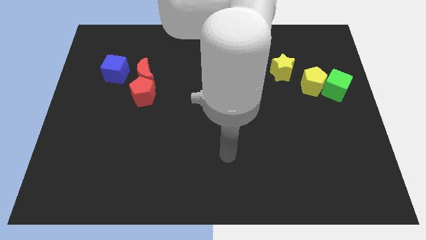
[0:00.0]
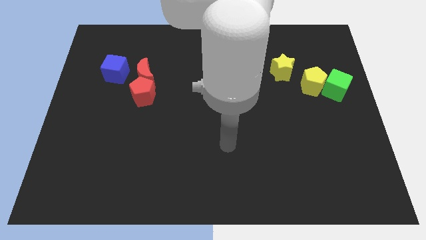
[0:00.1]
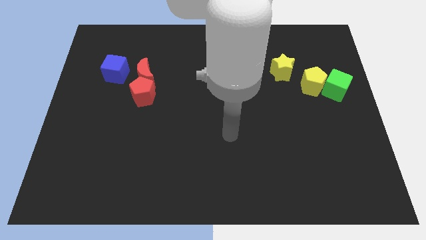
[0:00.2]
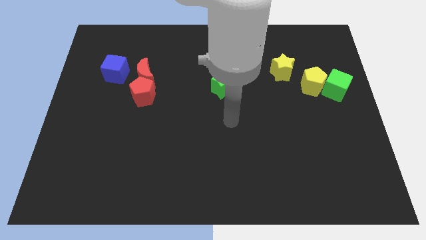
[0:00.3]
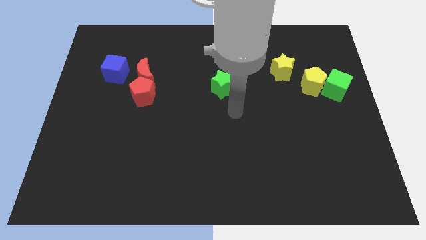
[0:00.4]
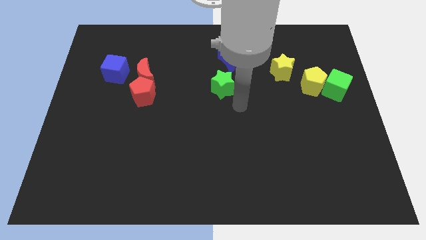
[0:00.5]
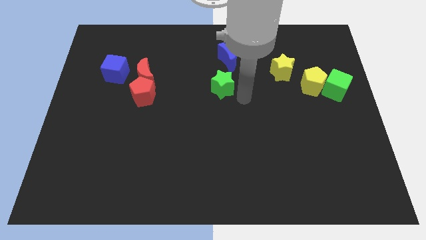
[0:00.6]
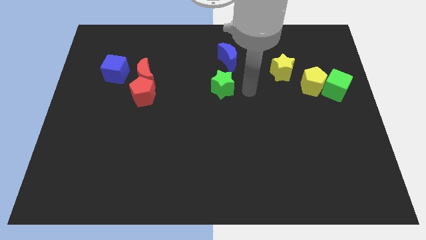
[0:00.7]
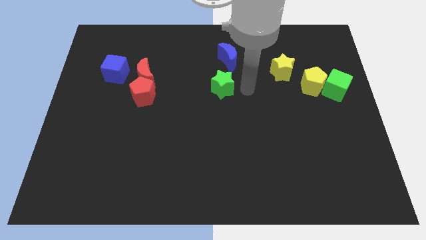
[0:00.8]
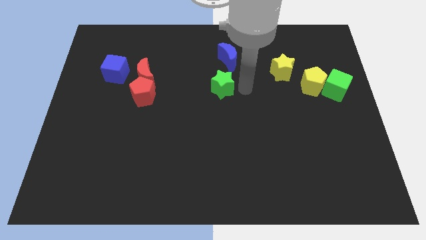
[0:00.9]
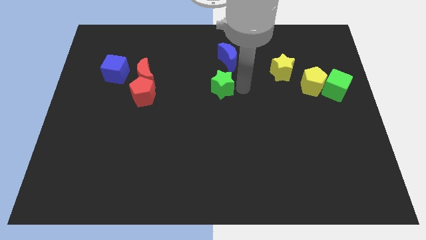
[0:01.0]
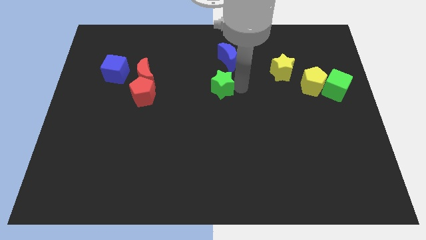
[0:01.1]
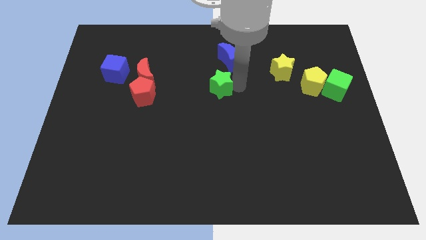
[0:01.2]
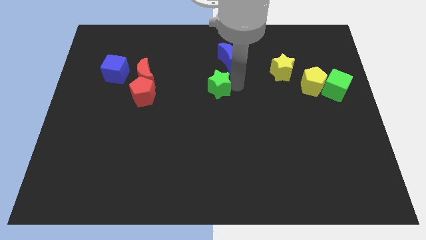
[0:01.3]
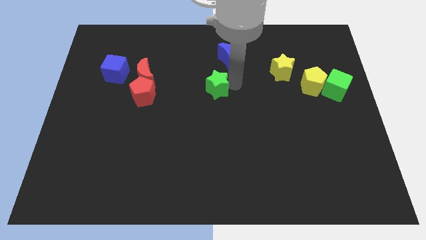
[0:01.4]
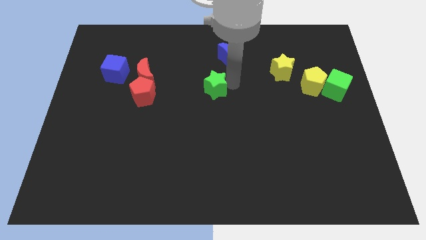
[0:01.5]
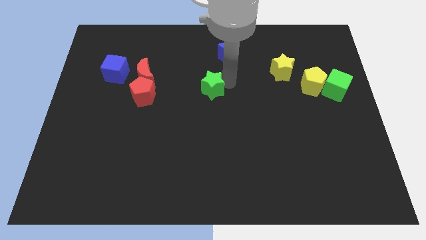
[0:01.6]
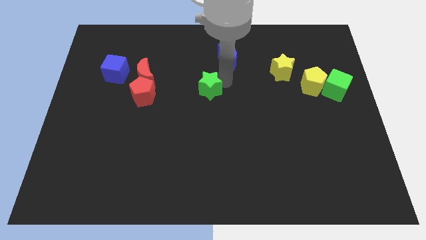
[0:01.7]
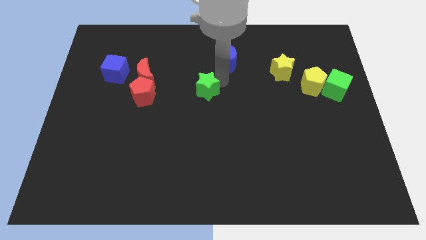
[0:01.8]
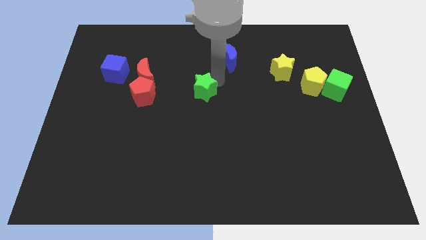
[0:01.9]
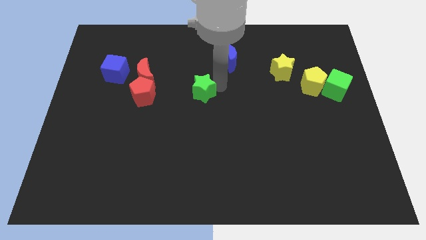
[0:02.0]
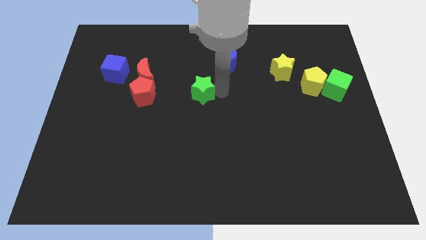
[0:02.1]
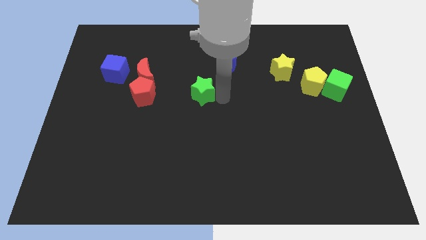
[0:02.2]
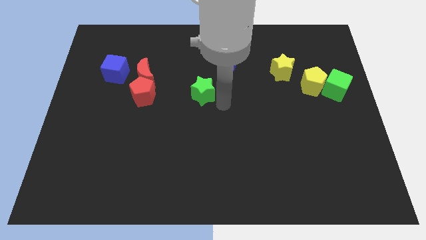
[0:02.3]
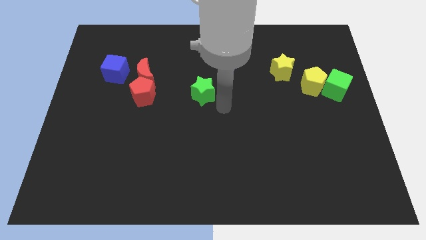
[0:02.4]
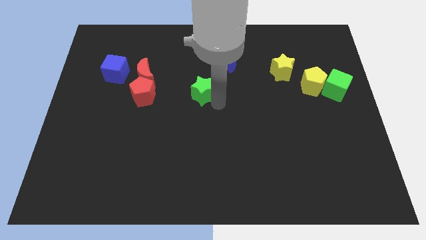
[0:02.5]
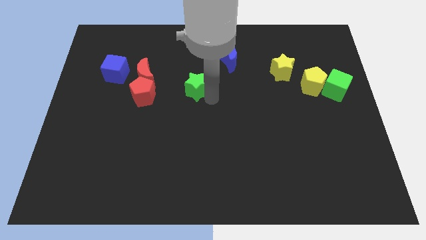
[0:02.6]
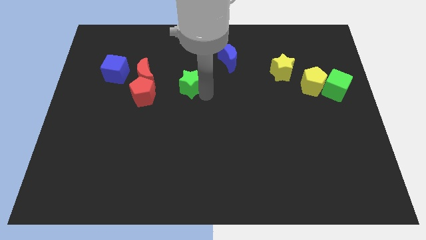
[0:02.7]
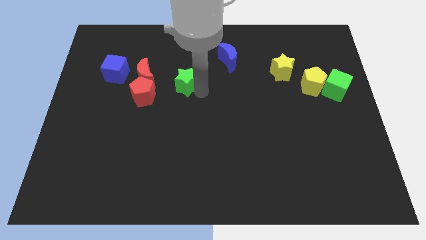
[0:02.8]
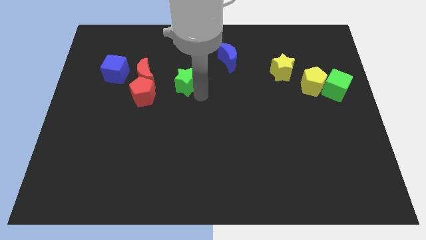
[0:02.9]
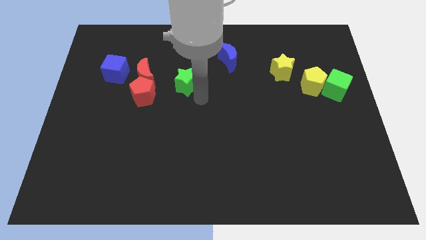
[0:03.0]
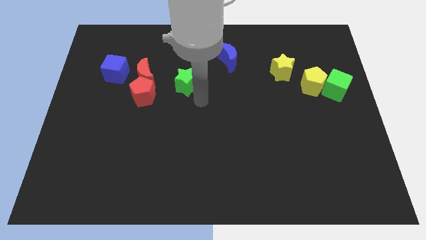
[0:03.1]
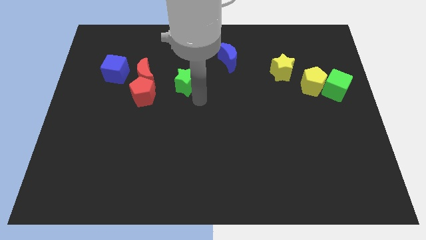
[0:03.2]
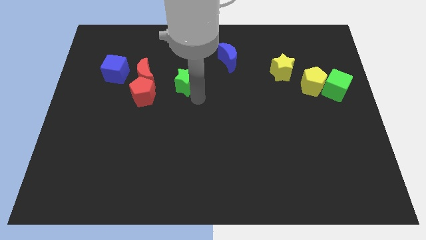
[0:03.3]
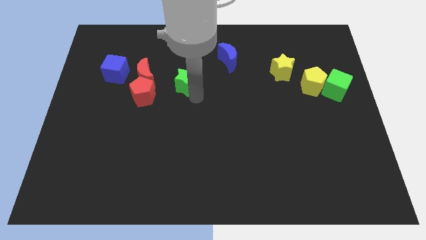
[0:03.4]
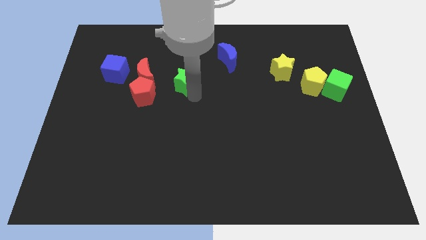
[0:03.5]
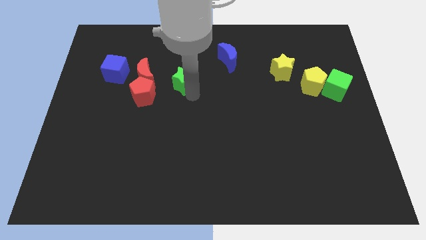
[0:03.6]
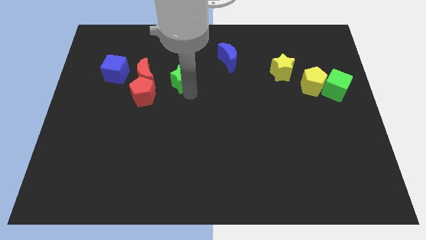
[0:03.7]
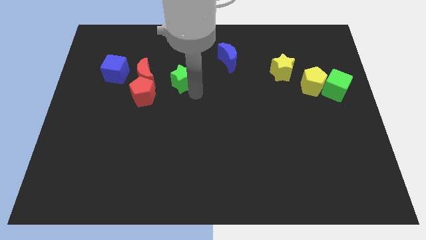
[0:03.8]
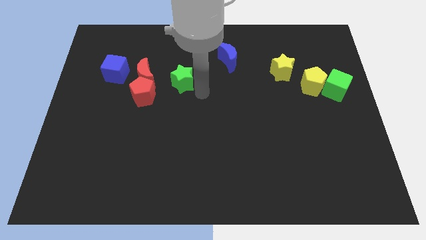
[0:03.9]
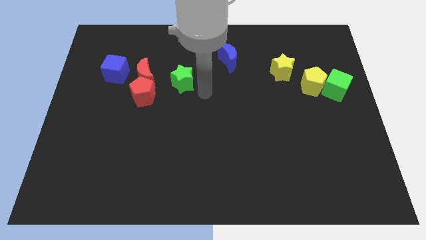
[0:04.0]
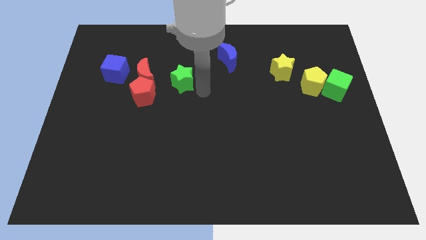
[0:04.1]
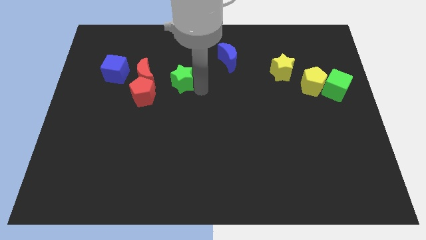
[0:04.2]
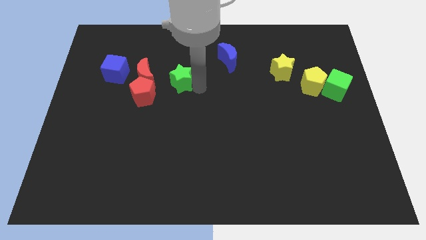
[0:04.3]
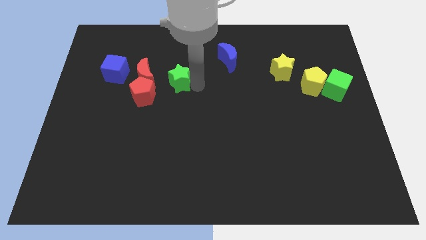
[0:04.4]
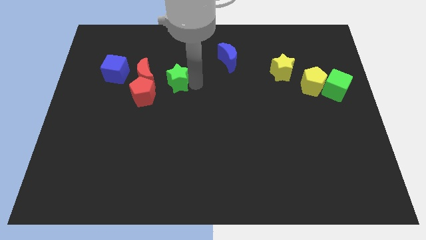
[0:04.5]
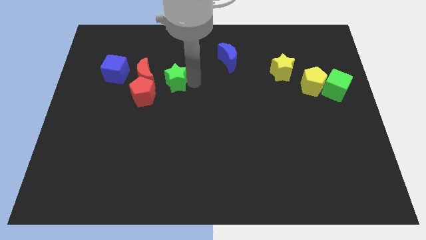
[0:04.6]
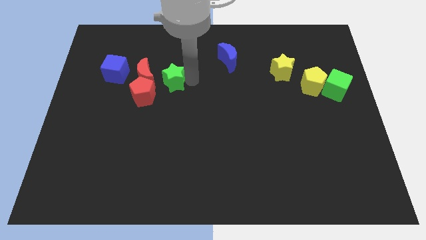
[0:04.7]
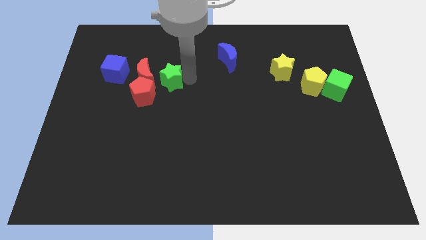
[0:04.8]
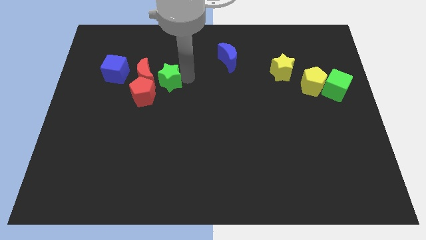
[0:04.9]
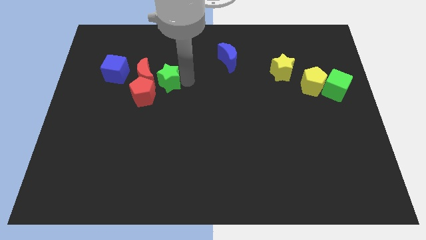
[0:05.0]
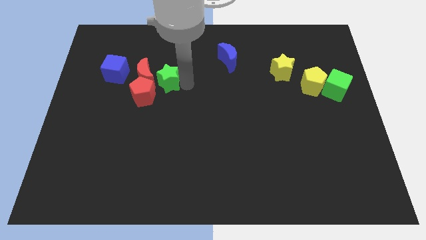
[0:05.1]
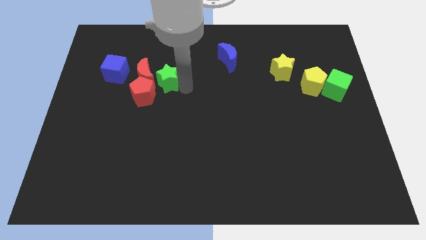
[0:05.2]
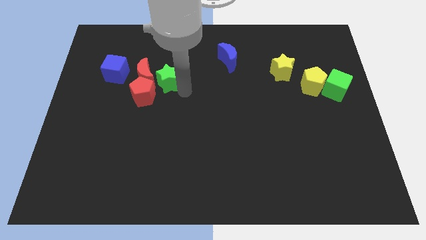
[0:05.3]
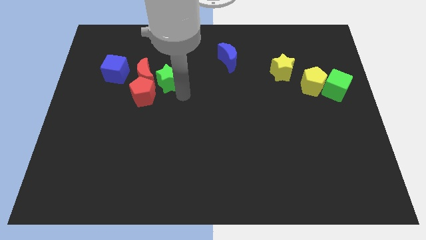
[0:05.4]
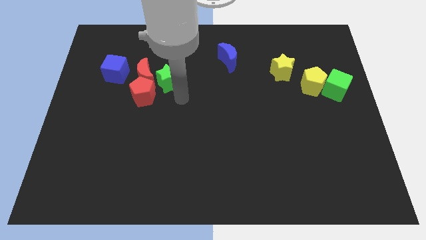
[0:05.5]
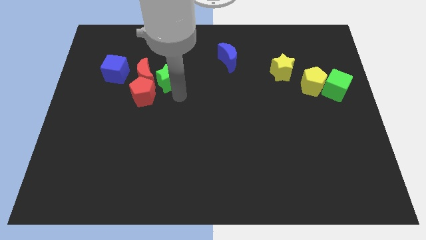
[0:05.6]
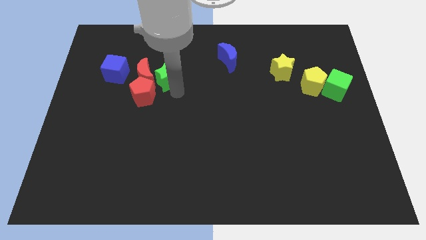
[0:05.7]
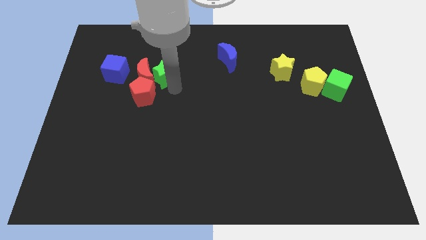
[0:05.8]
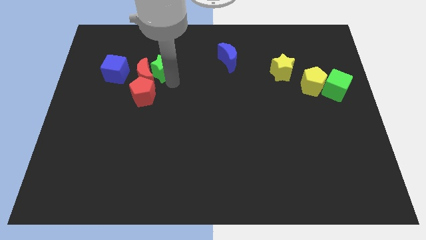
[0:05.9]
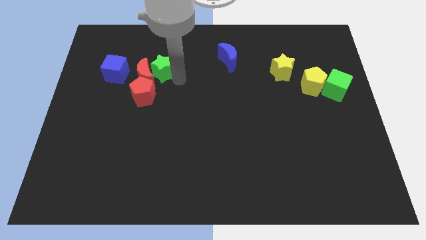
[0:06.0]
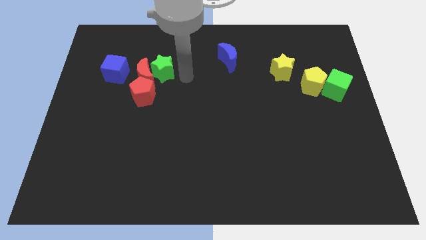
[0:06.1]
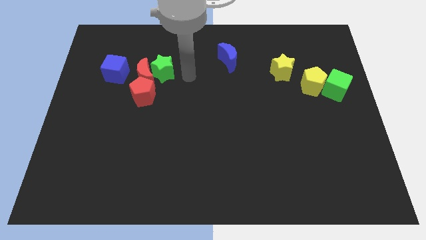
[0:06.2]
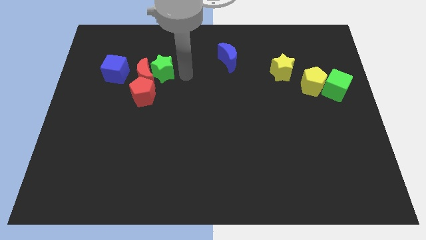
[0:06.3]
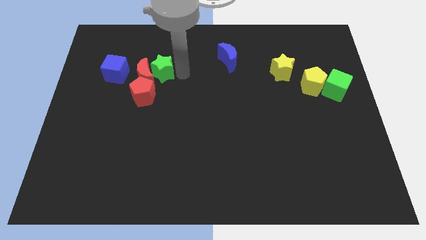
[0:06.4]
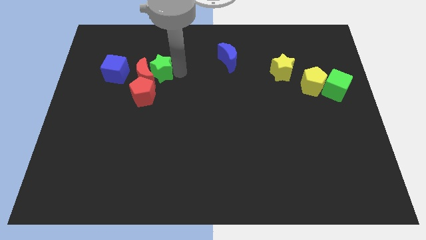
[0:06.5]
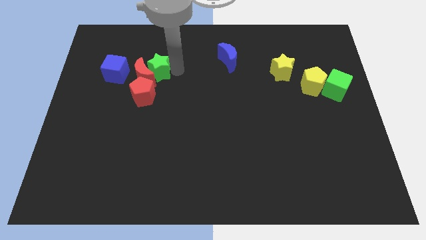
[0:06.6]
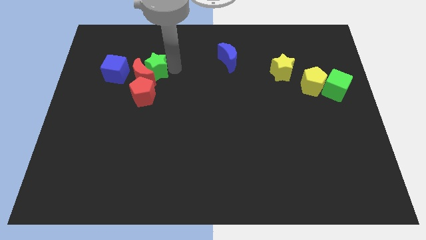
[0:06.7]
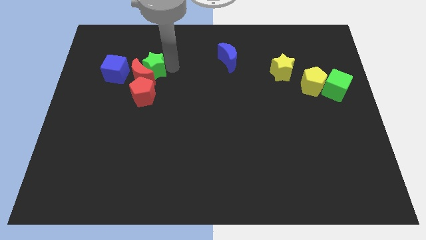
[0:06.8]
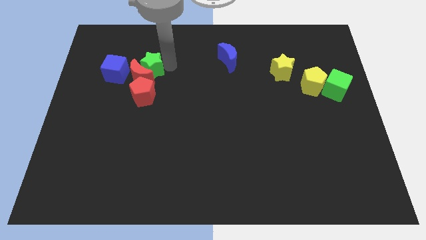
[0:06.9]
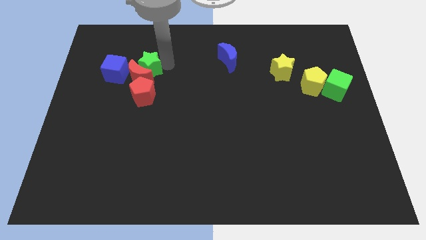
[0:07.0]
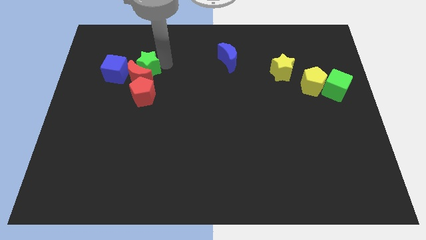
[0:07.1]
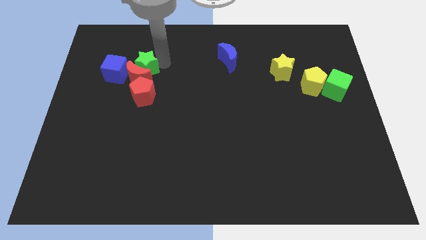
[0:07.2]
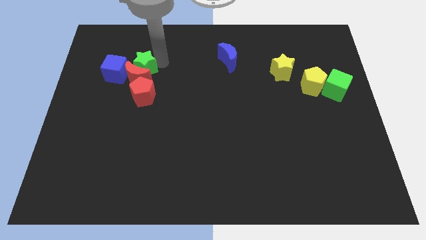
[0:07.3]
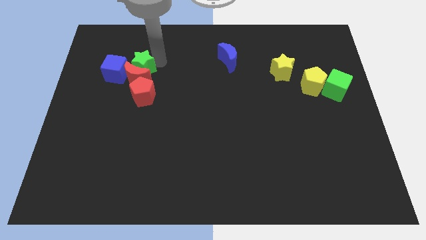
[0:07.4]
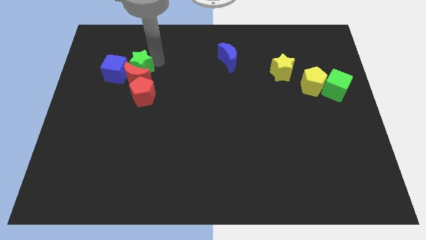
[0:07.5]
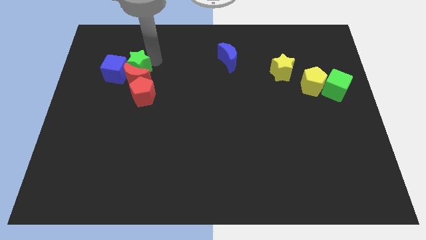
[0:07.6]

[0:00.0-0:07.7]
put the green star next to the blue cube
